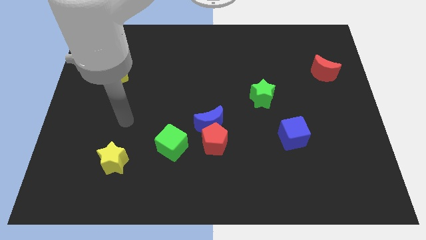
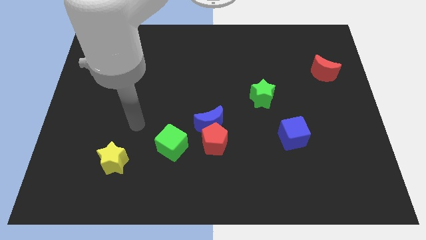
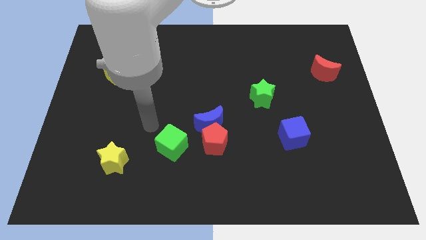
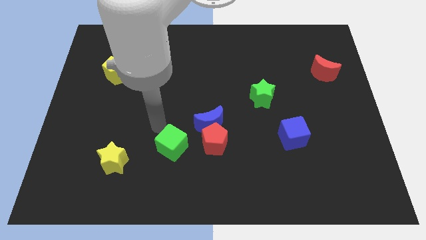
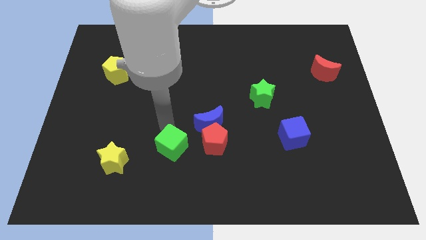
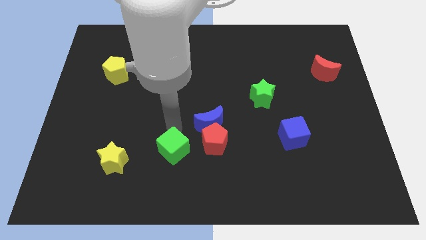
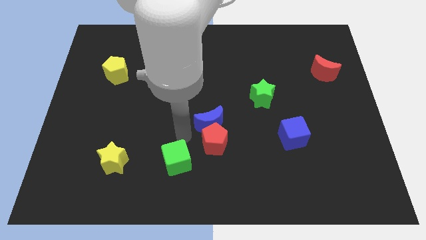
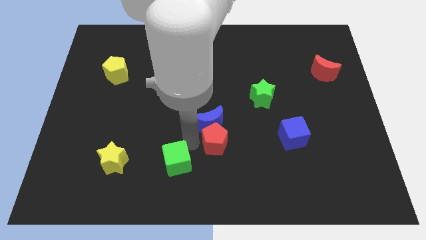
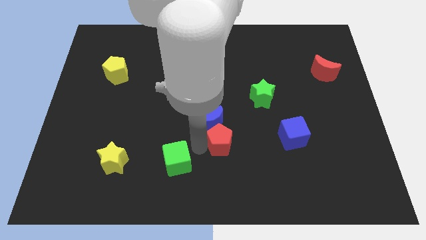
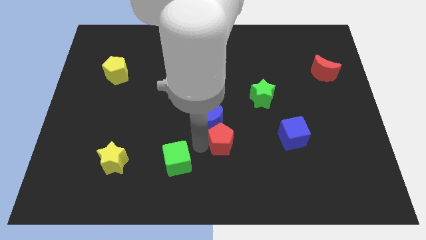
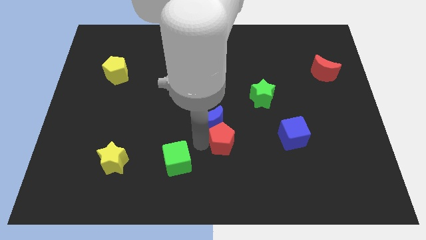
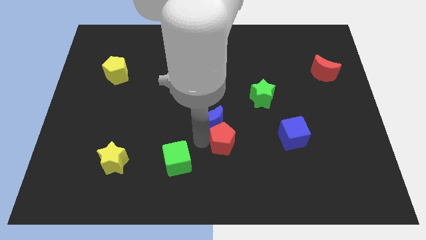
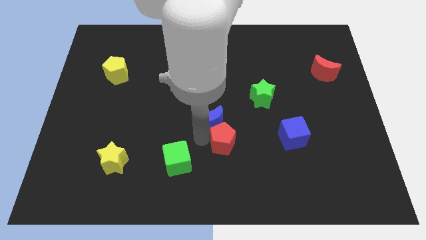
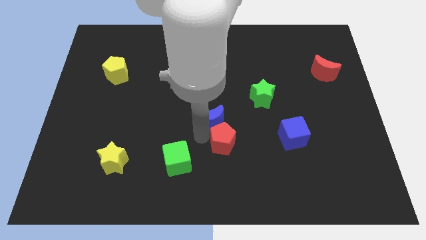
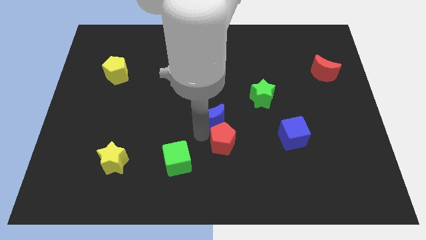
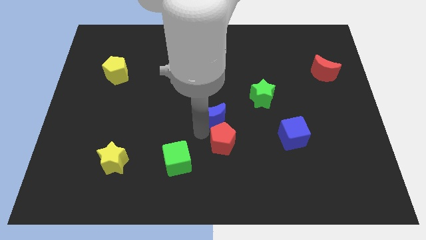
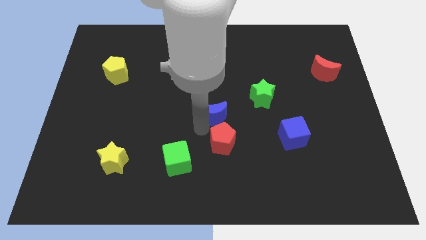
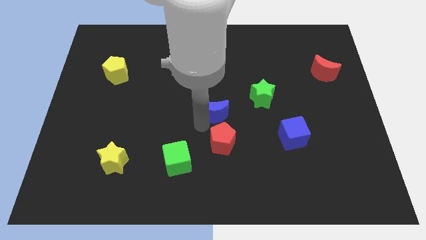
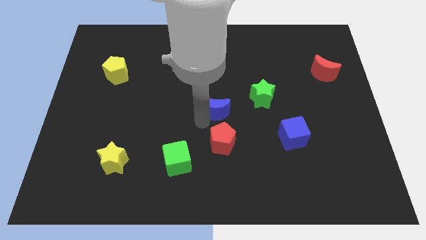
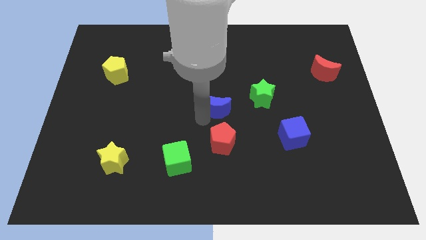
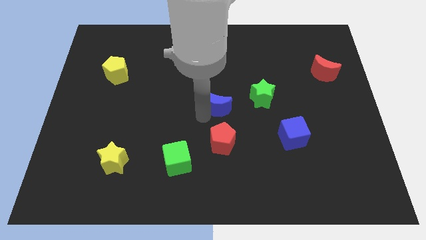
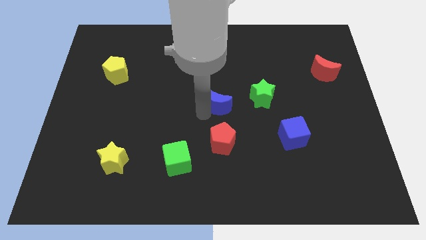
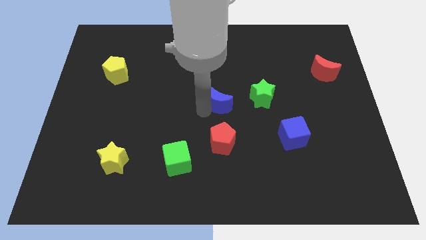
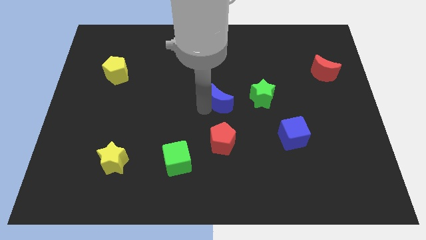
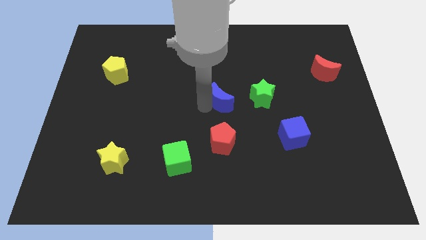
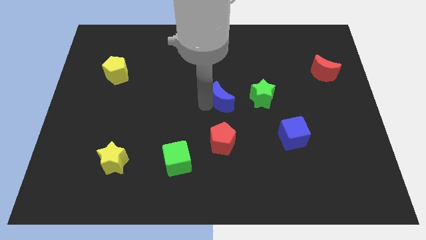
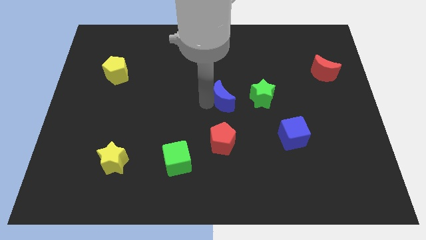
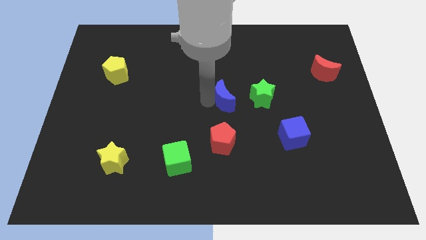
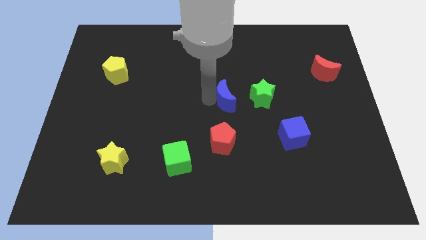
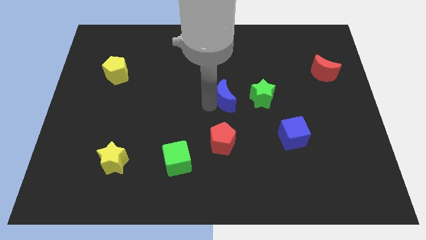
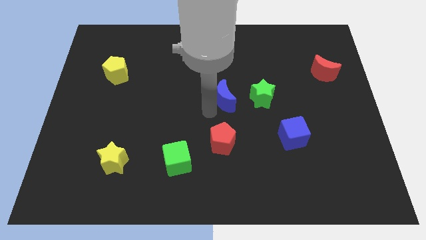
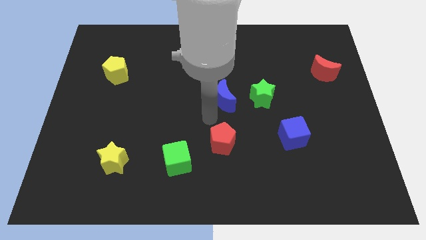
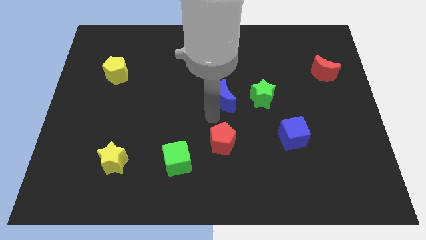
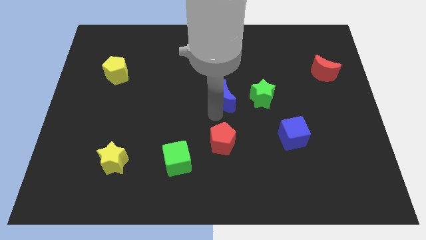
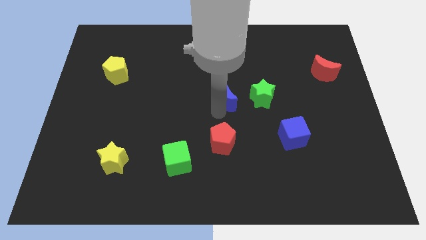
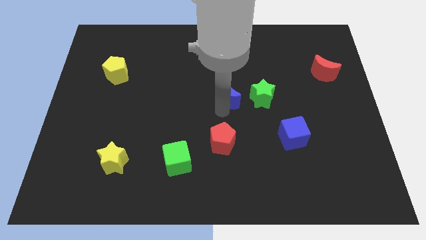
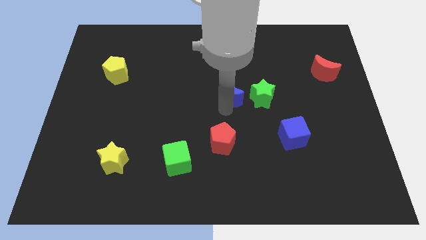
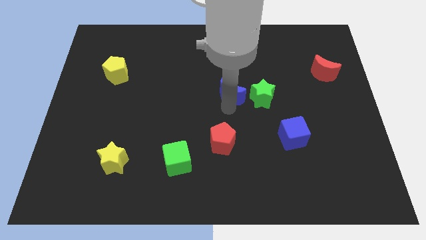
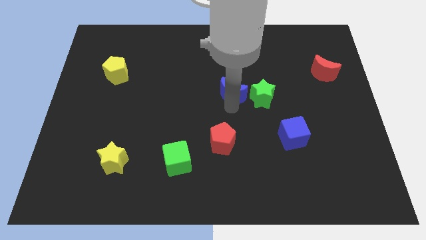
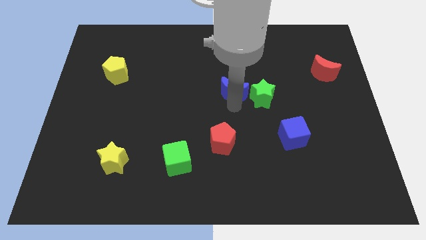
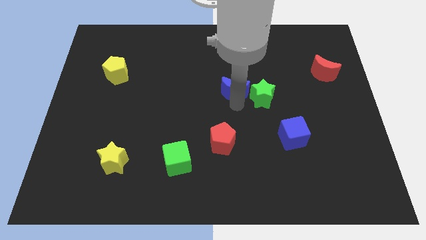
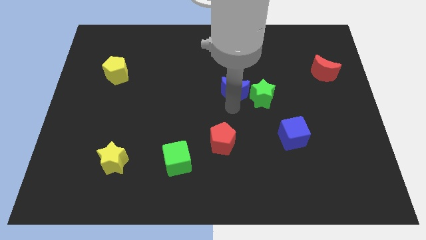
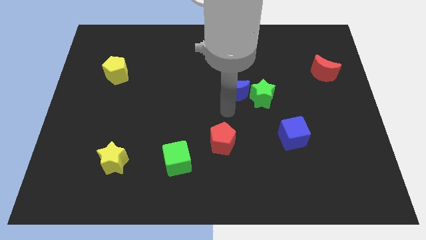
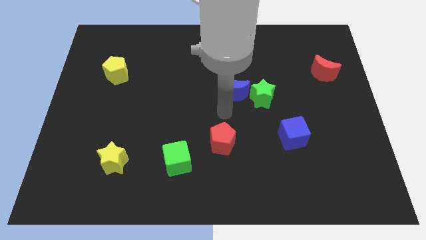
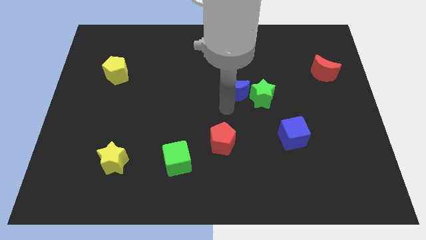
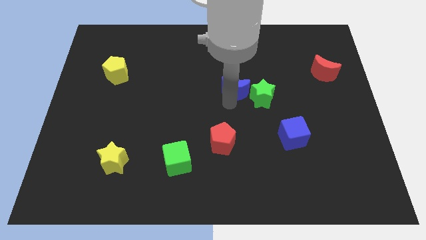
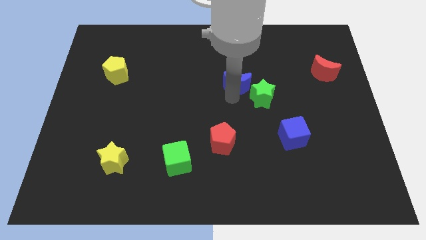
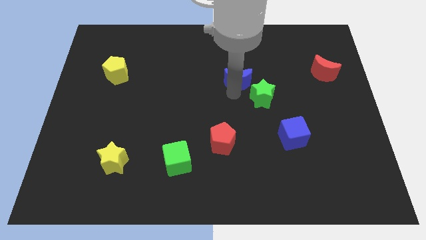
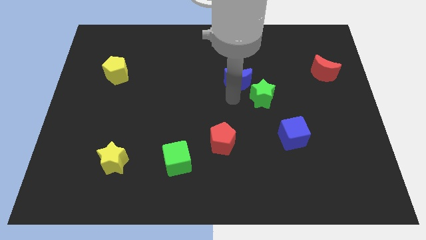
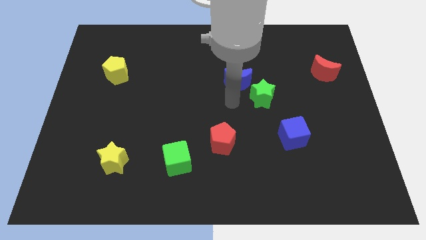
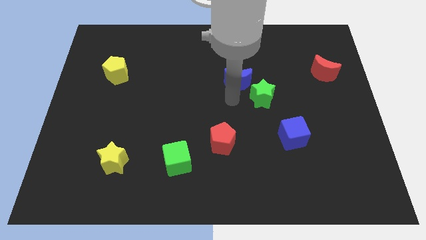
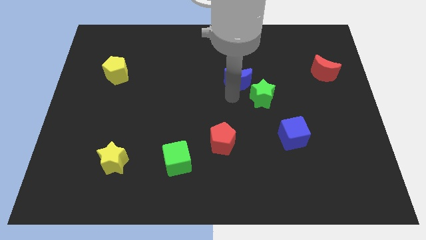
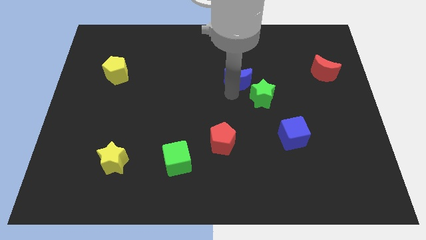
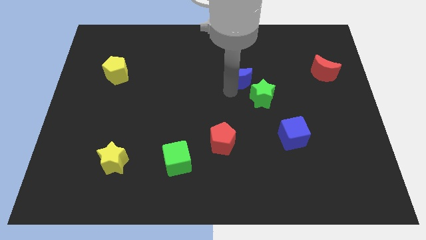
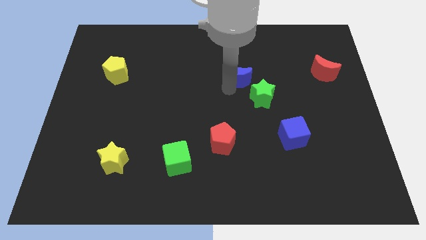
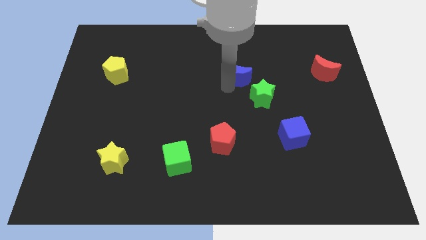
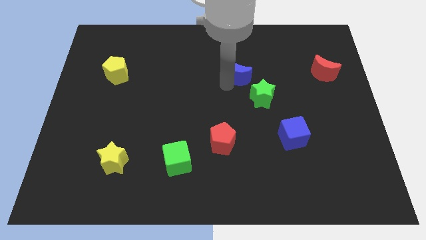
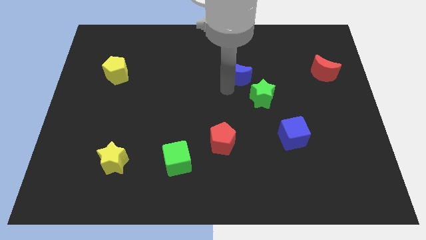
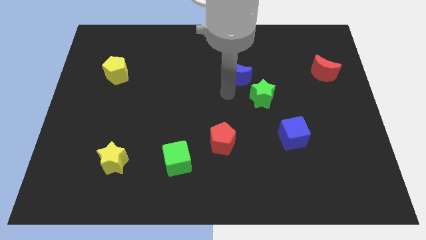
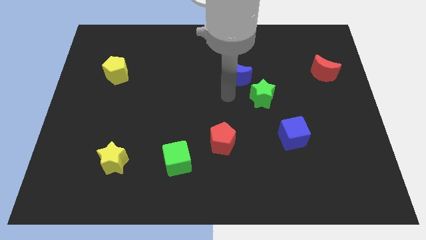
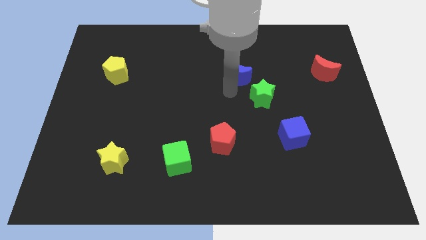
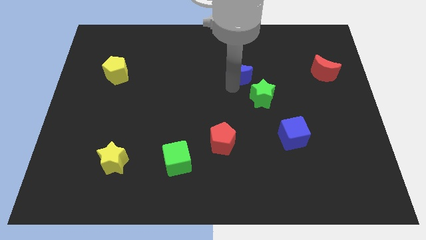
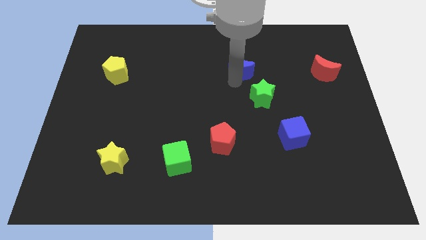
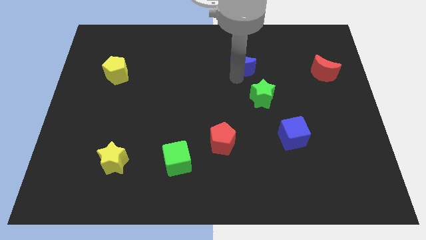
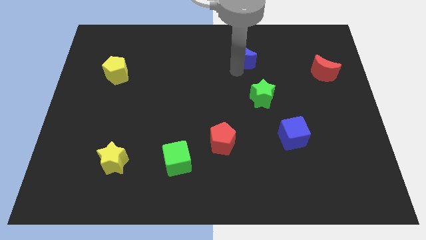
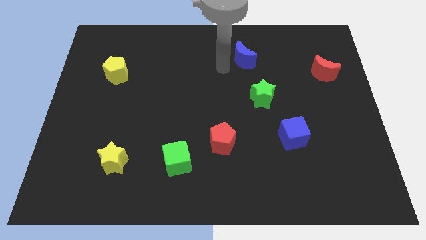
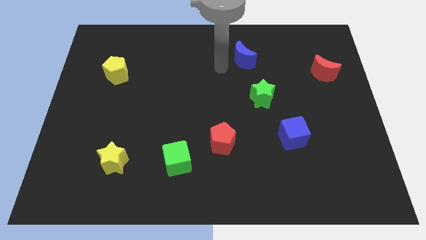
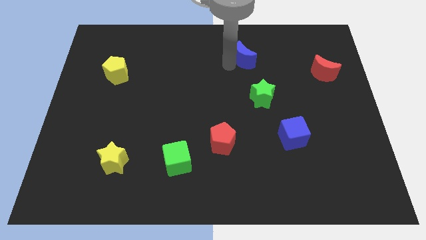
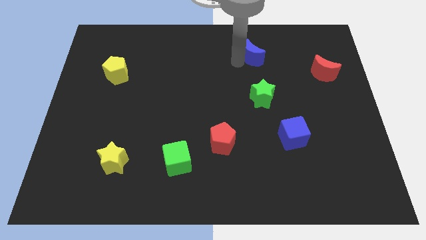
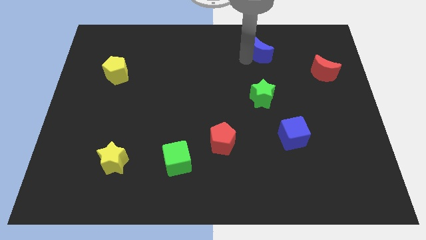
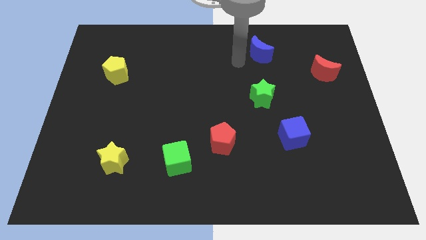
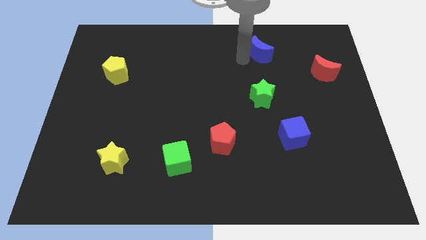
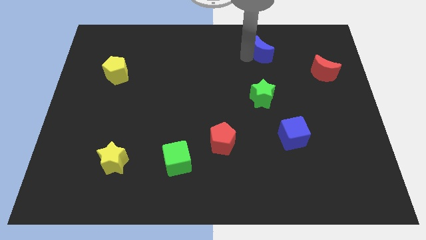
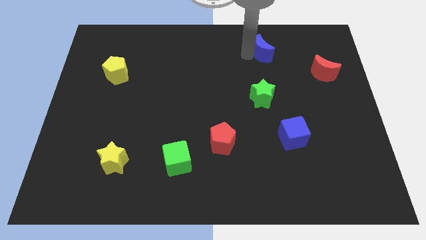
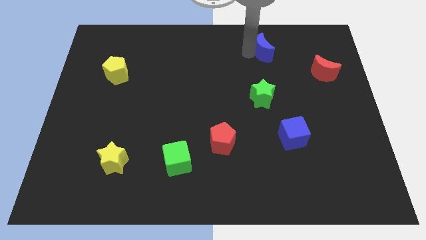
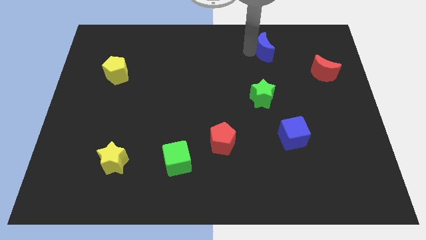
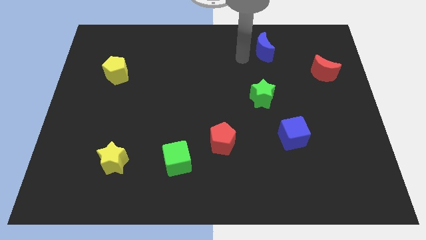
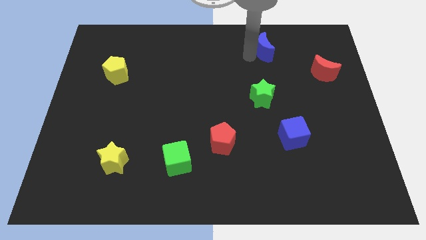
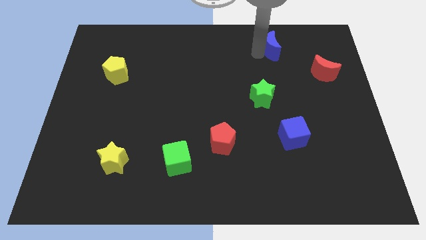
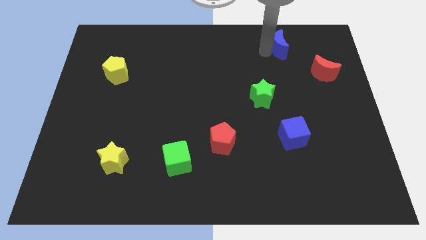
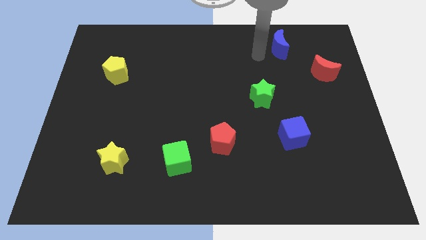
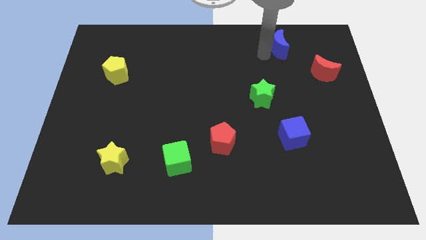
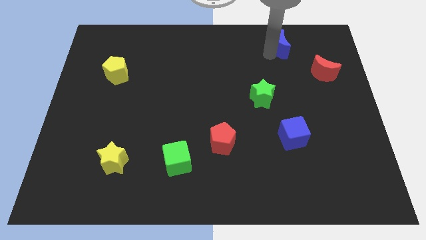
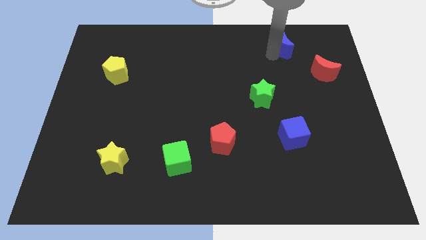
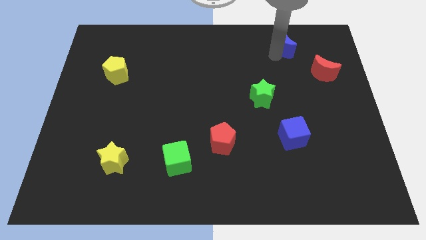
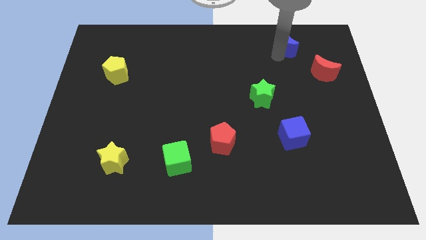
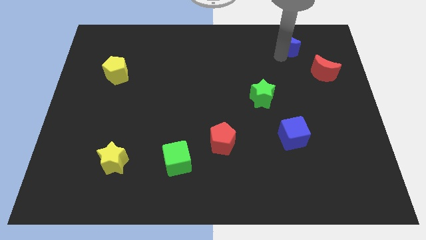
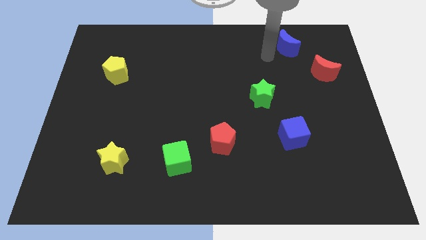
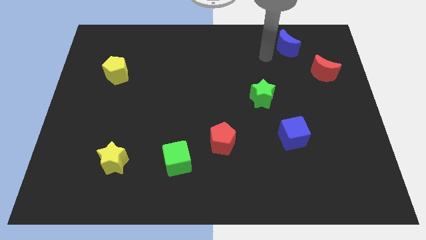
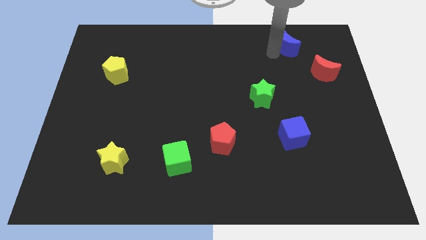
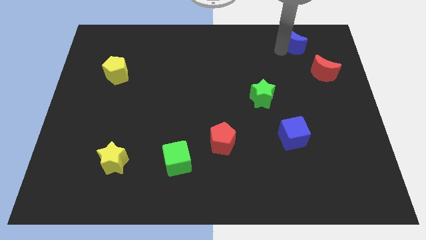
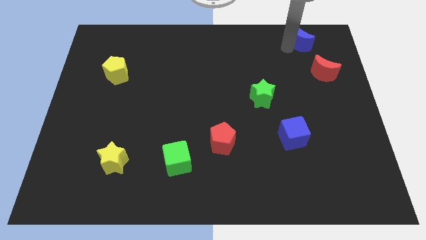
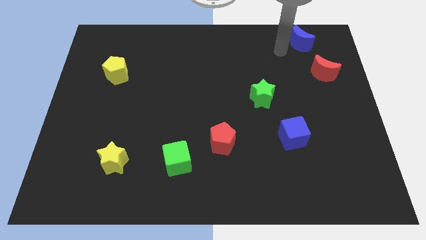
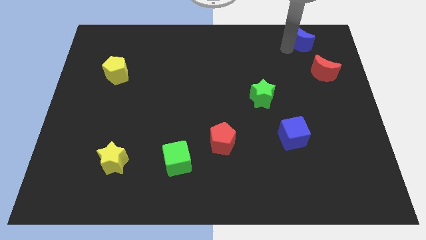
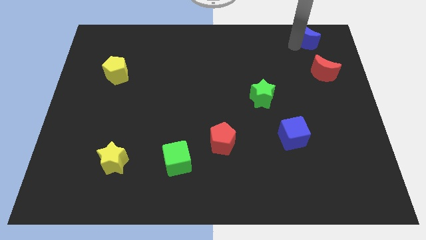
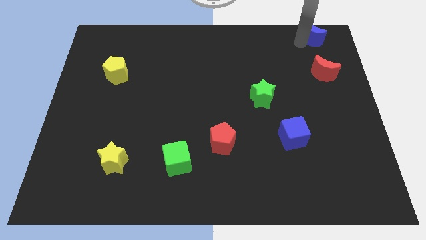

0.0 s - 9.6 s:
put the blue moon to the top right of the board
